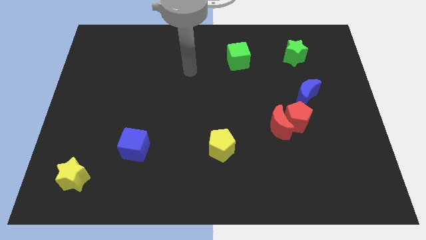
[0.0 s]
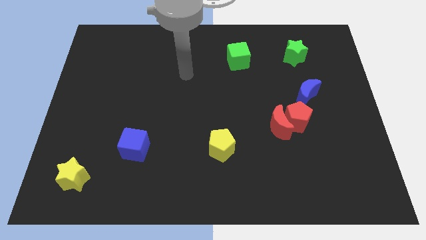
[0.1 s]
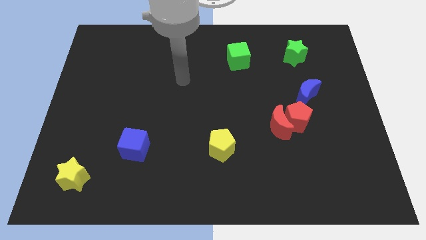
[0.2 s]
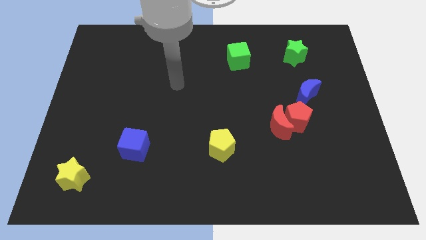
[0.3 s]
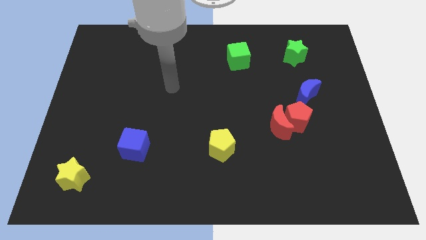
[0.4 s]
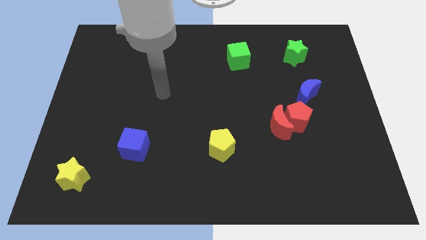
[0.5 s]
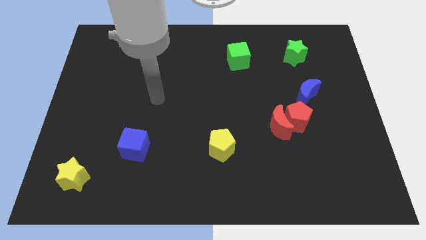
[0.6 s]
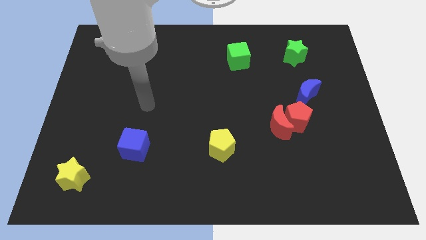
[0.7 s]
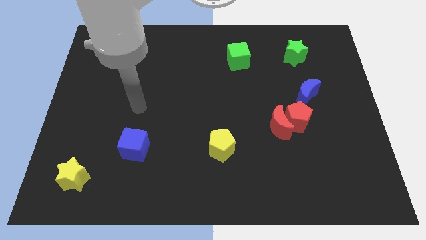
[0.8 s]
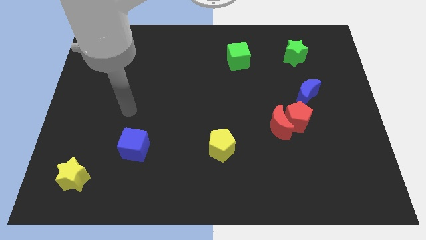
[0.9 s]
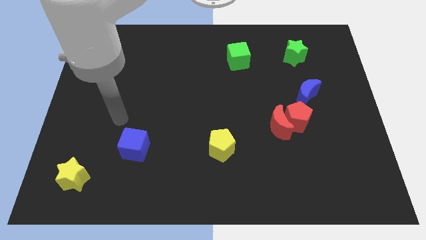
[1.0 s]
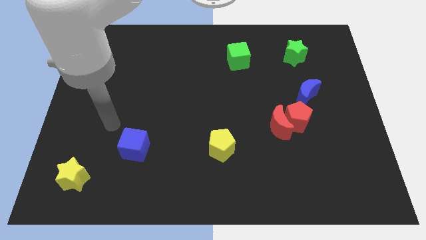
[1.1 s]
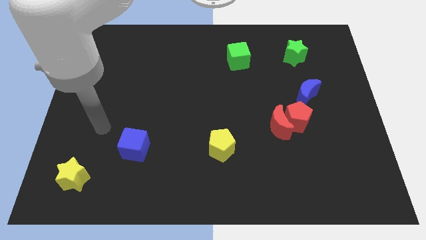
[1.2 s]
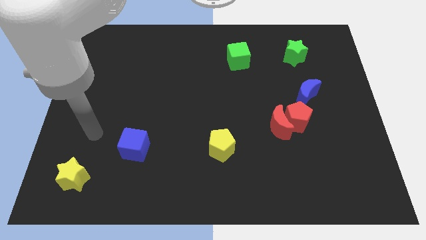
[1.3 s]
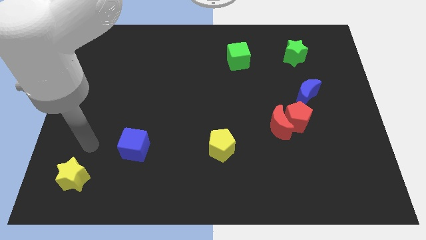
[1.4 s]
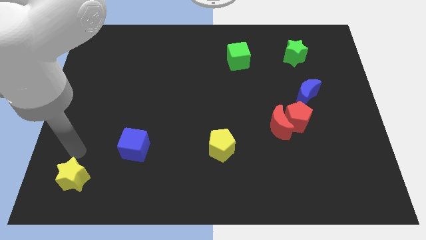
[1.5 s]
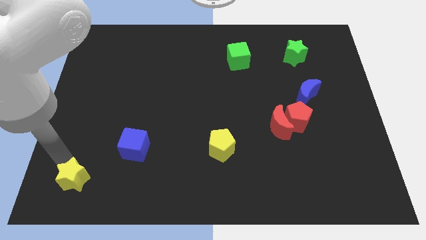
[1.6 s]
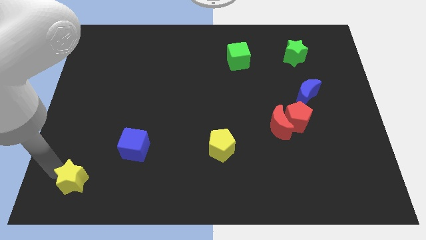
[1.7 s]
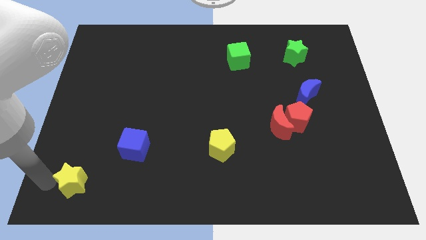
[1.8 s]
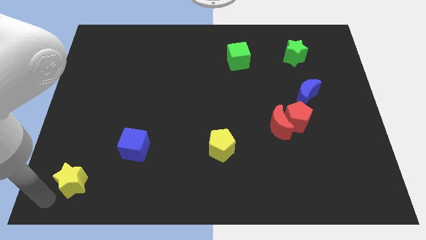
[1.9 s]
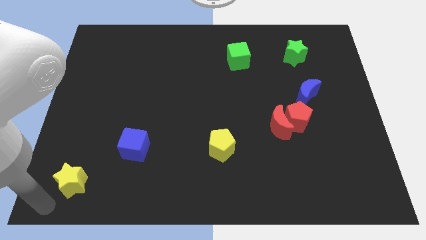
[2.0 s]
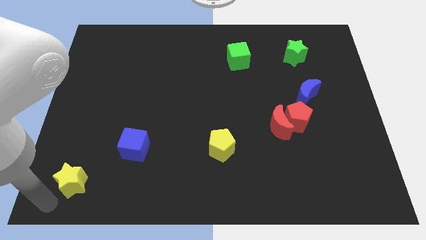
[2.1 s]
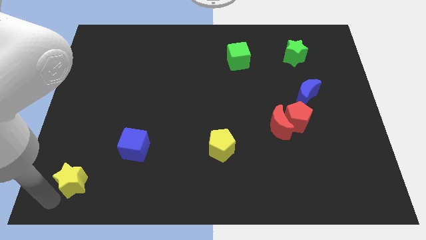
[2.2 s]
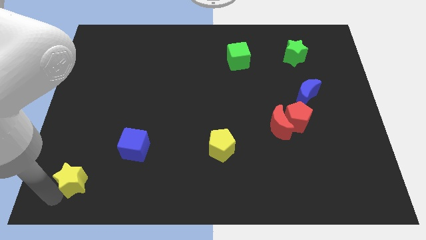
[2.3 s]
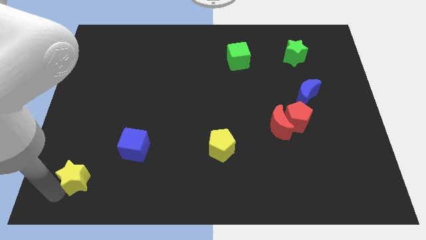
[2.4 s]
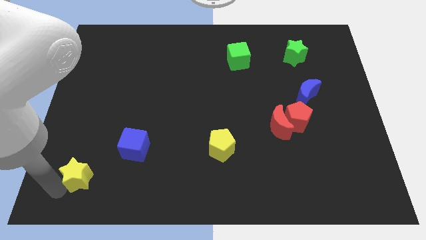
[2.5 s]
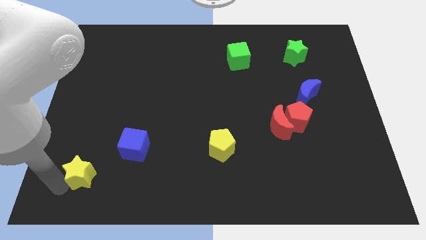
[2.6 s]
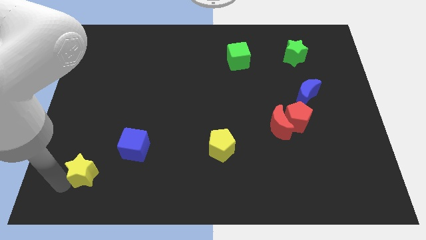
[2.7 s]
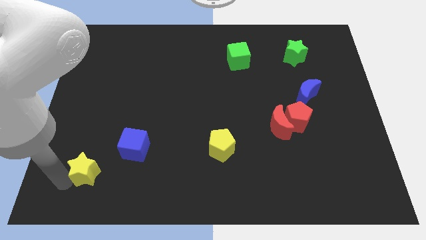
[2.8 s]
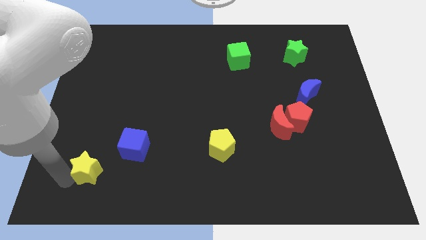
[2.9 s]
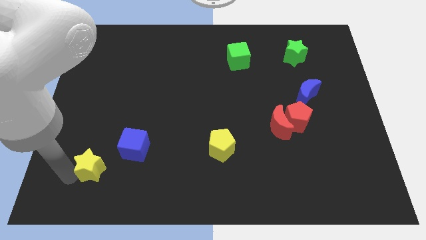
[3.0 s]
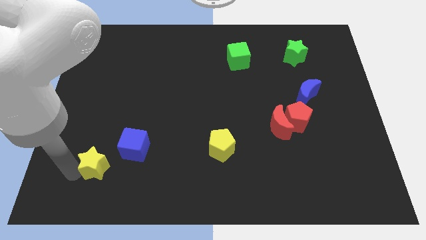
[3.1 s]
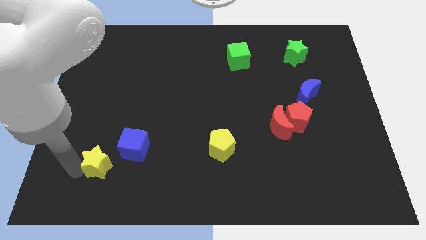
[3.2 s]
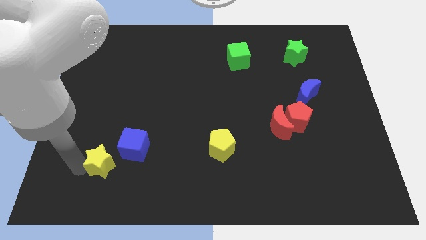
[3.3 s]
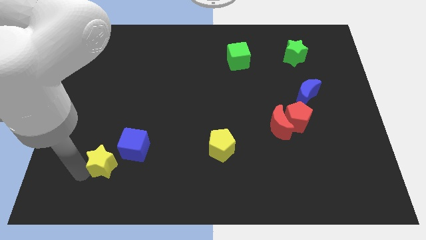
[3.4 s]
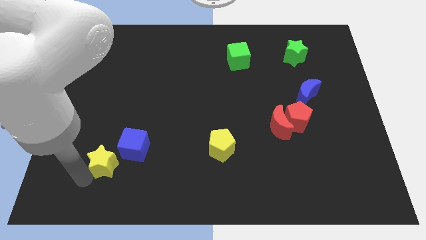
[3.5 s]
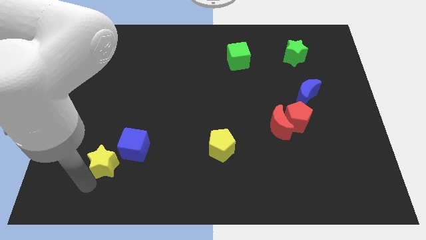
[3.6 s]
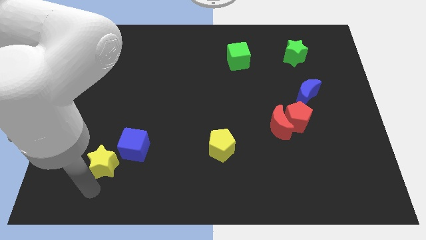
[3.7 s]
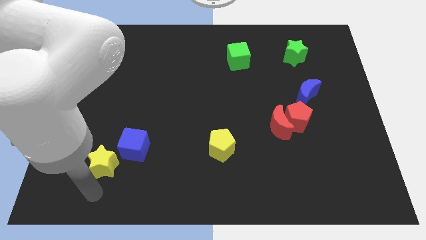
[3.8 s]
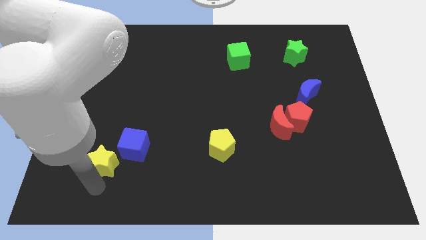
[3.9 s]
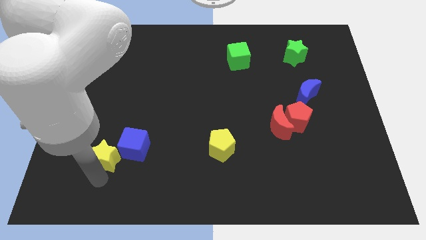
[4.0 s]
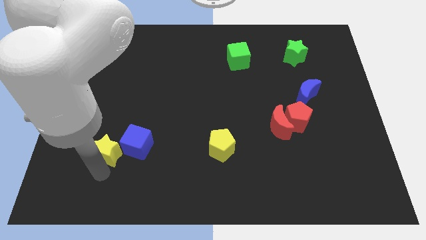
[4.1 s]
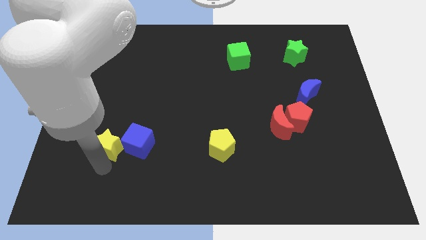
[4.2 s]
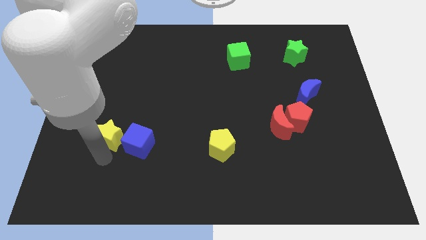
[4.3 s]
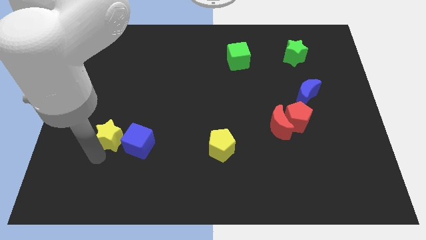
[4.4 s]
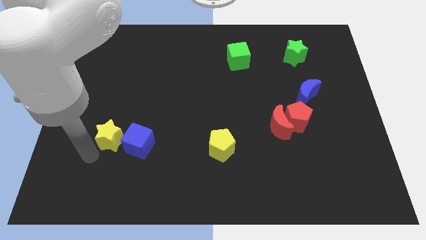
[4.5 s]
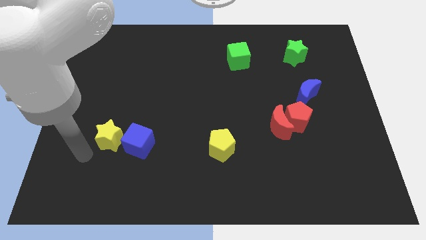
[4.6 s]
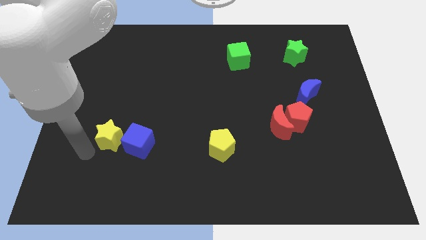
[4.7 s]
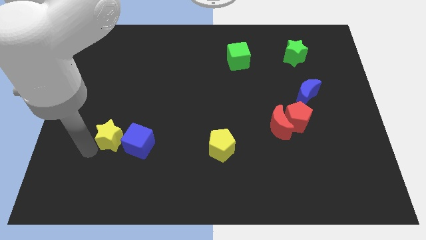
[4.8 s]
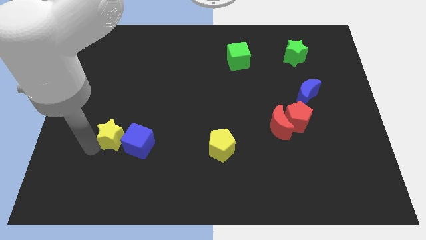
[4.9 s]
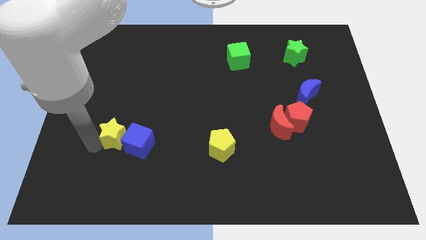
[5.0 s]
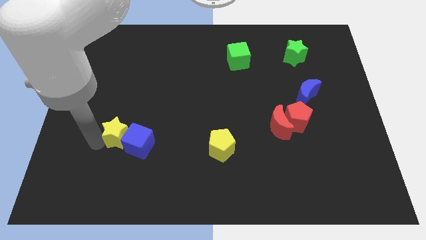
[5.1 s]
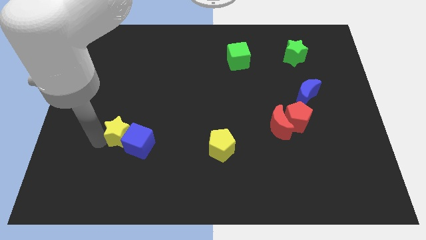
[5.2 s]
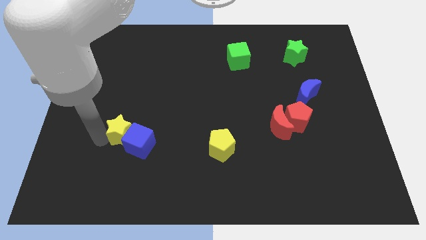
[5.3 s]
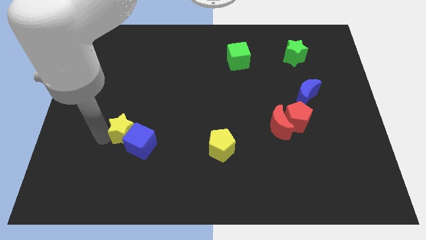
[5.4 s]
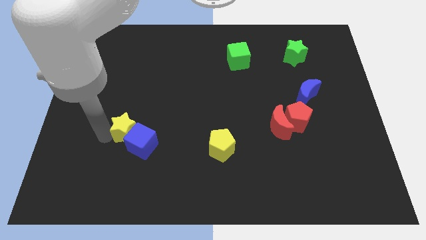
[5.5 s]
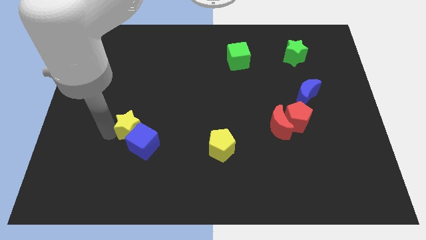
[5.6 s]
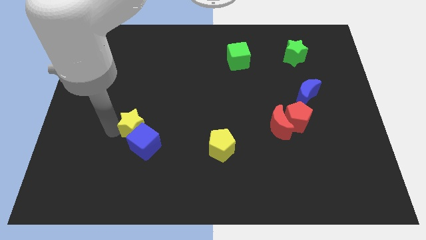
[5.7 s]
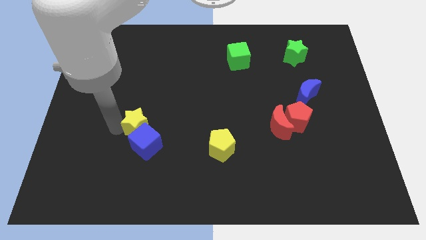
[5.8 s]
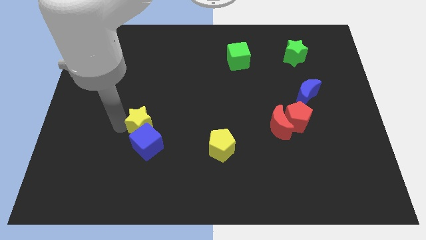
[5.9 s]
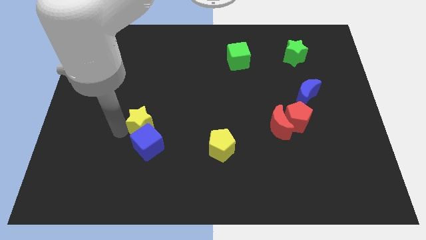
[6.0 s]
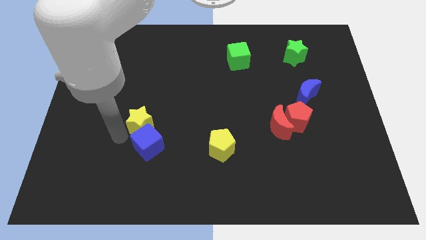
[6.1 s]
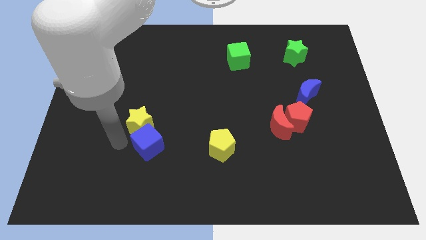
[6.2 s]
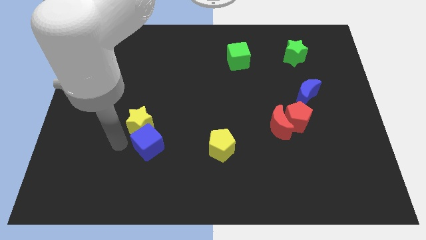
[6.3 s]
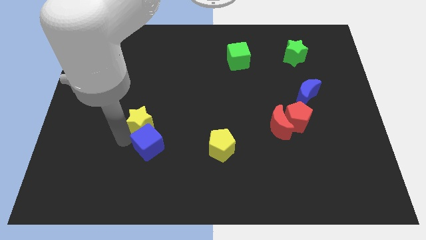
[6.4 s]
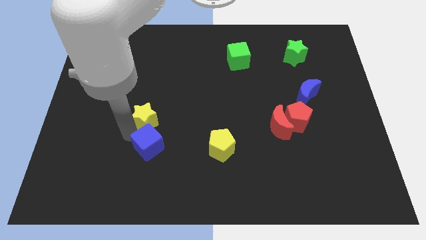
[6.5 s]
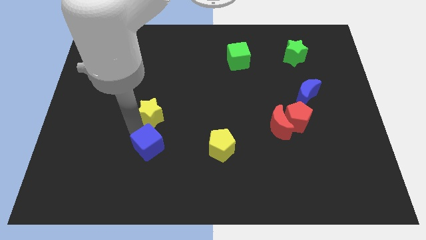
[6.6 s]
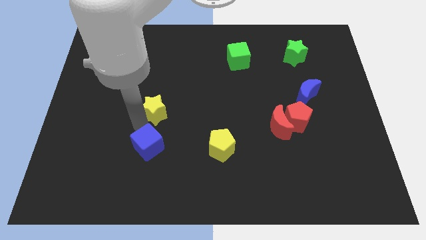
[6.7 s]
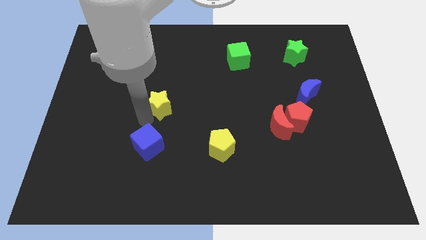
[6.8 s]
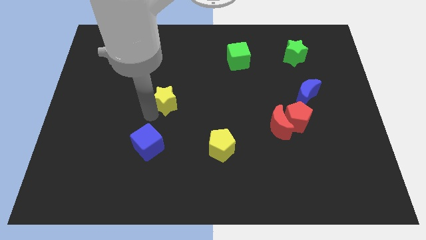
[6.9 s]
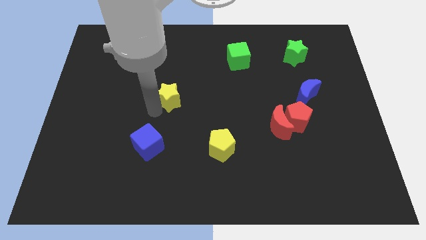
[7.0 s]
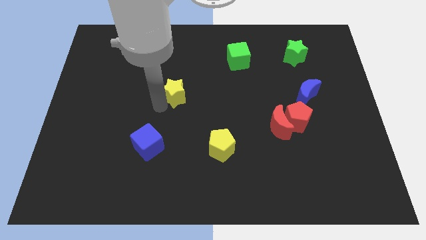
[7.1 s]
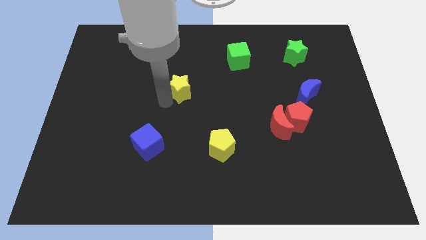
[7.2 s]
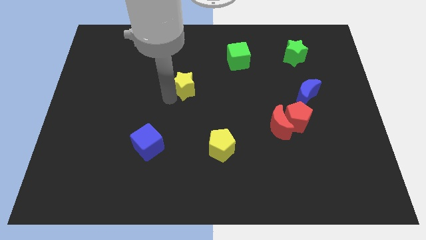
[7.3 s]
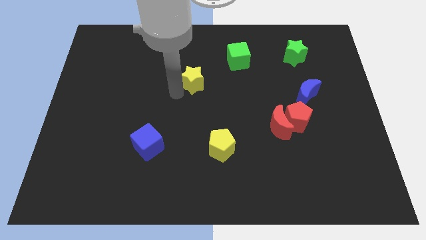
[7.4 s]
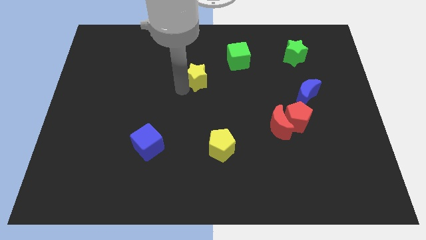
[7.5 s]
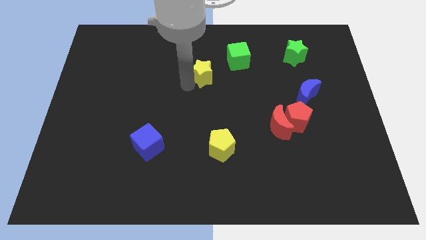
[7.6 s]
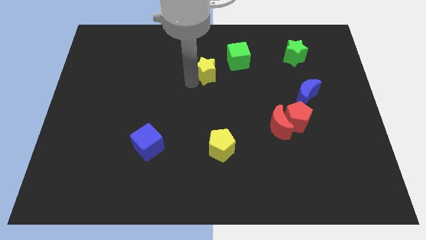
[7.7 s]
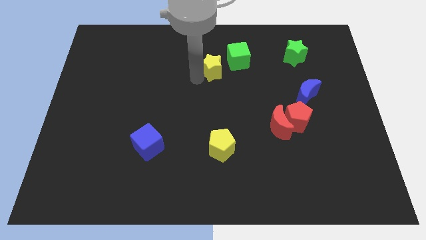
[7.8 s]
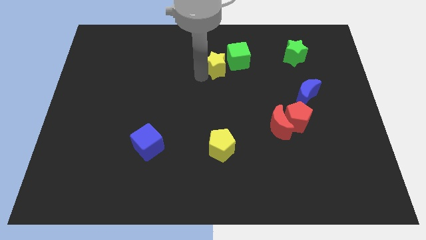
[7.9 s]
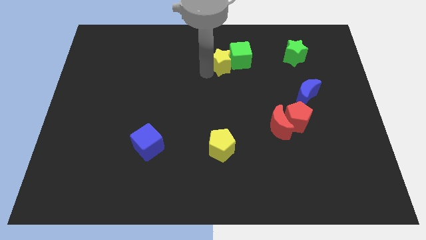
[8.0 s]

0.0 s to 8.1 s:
put the yellow star next to the green cube

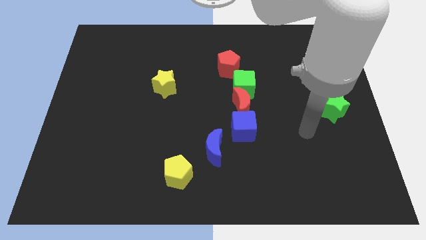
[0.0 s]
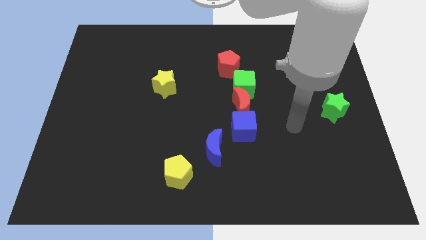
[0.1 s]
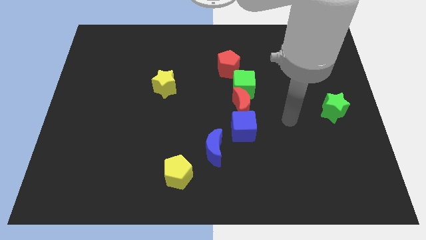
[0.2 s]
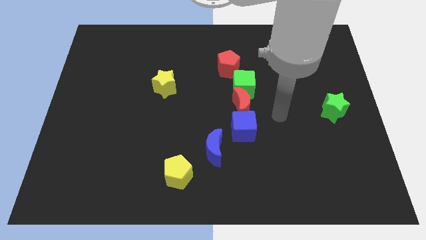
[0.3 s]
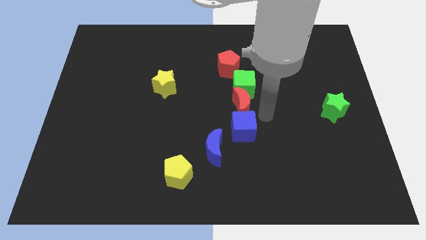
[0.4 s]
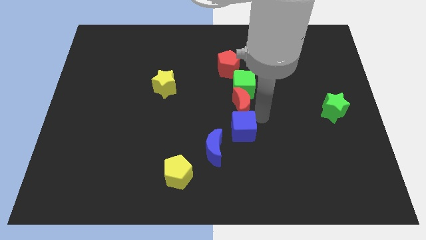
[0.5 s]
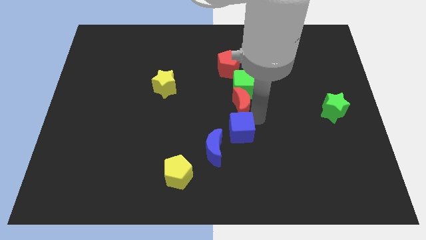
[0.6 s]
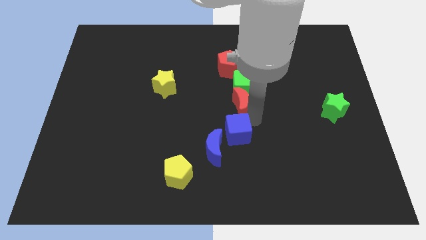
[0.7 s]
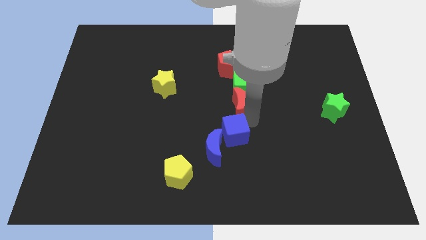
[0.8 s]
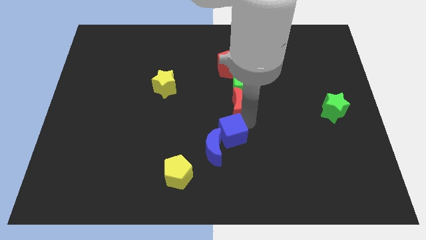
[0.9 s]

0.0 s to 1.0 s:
move the blue cube to the blue moon
